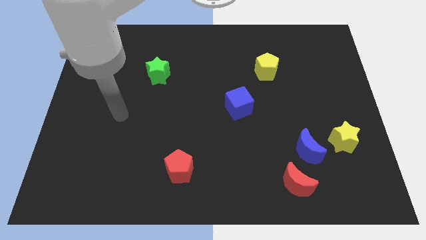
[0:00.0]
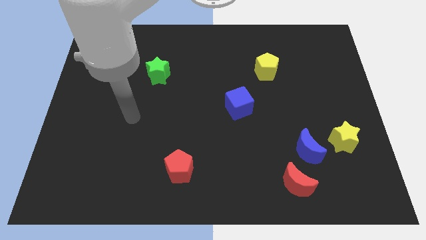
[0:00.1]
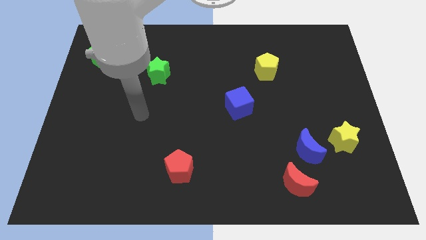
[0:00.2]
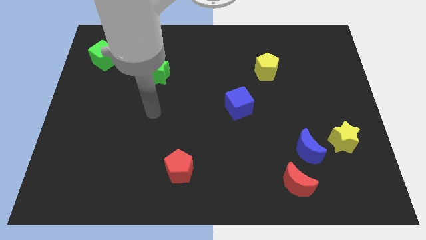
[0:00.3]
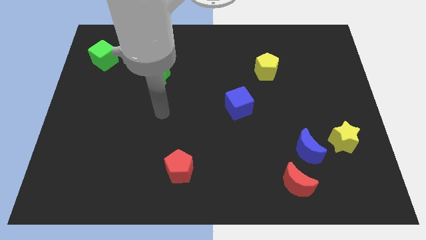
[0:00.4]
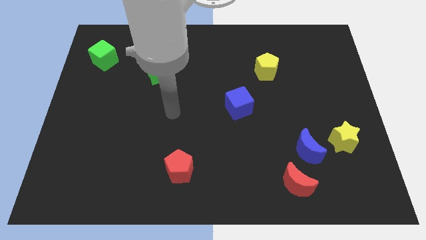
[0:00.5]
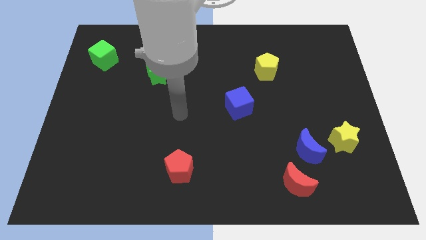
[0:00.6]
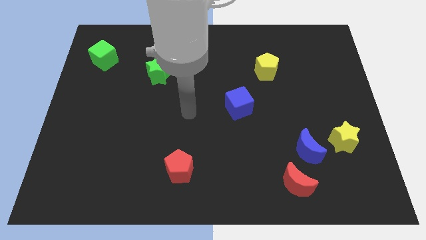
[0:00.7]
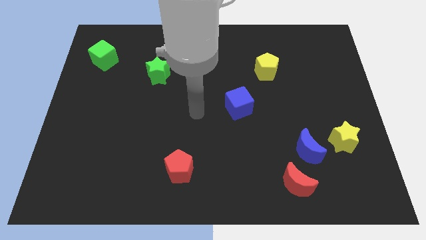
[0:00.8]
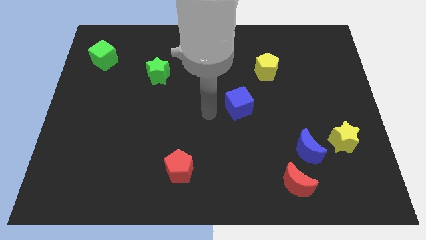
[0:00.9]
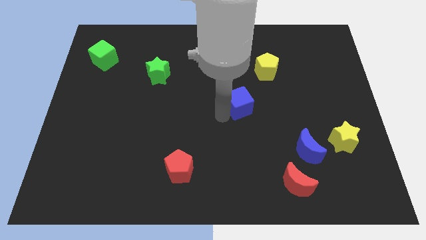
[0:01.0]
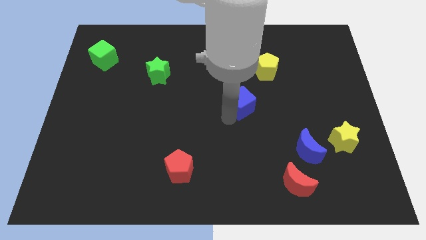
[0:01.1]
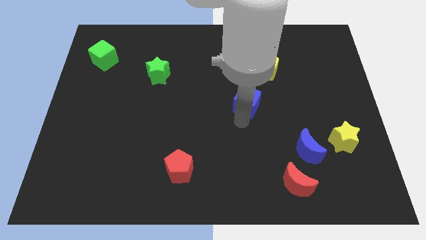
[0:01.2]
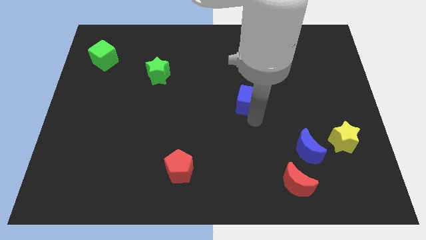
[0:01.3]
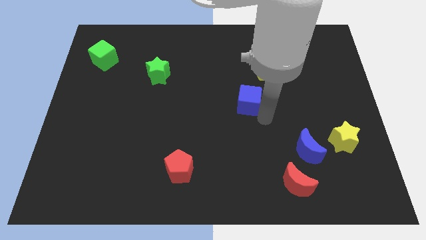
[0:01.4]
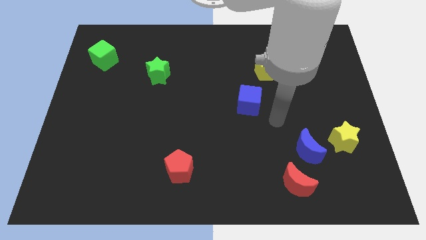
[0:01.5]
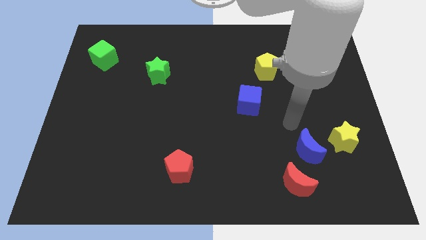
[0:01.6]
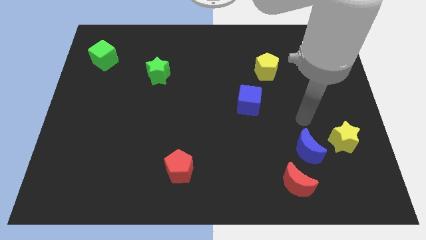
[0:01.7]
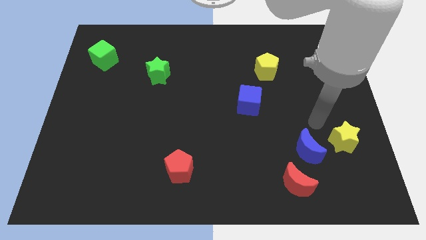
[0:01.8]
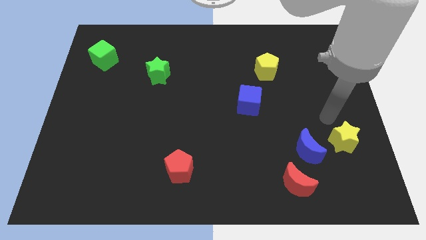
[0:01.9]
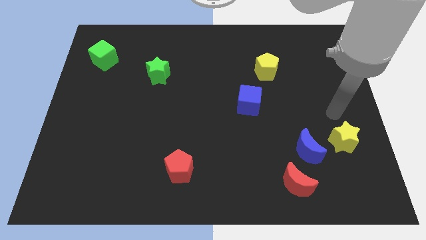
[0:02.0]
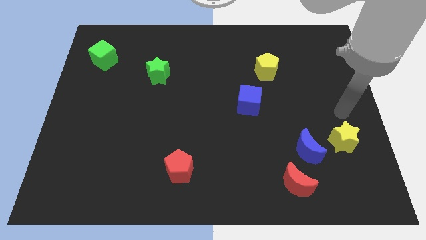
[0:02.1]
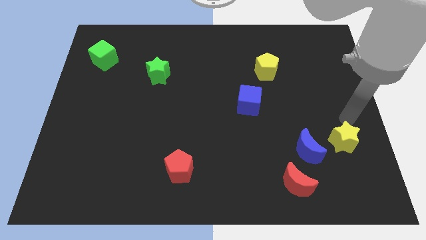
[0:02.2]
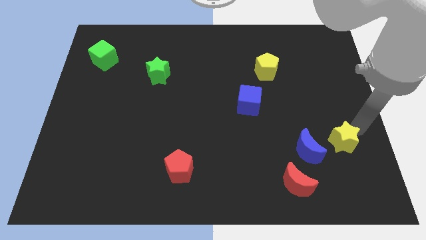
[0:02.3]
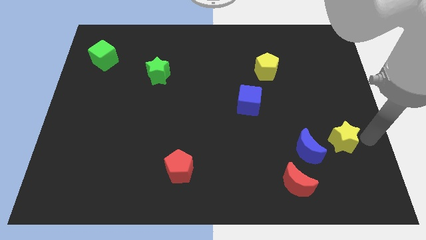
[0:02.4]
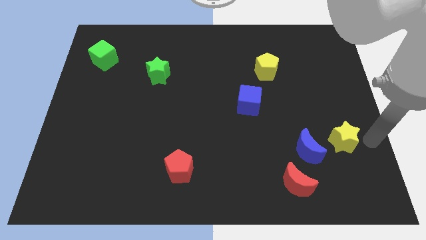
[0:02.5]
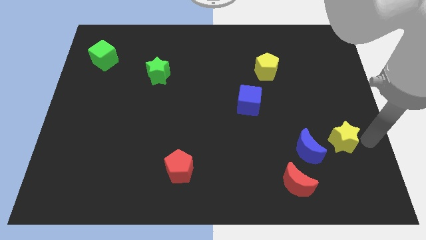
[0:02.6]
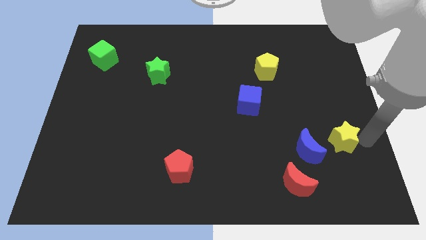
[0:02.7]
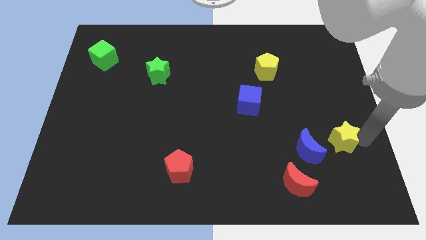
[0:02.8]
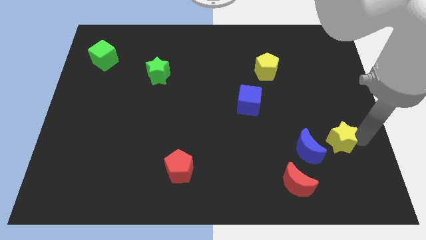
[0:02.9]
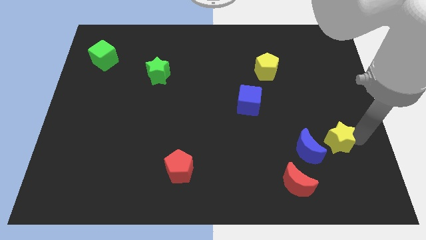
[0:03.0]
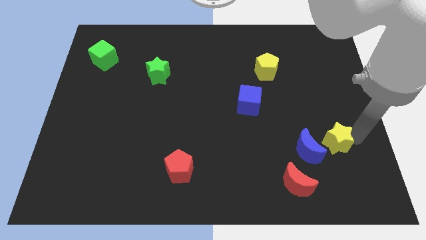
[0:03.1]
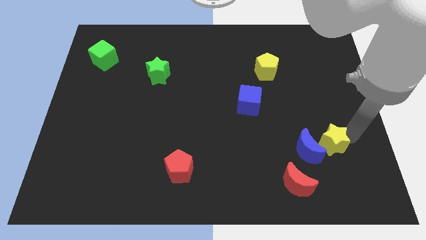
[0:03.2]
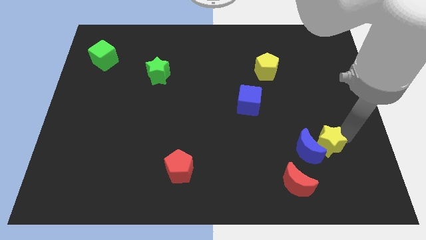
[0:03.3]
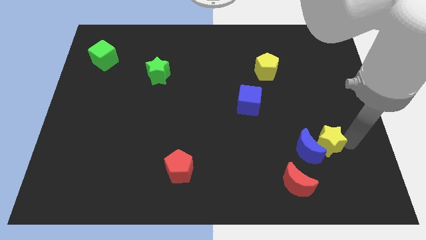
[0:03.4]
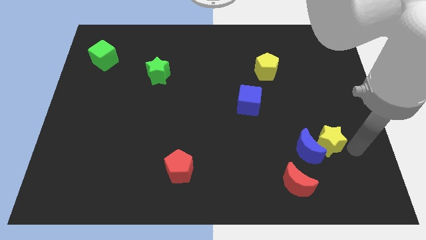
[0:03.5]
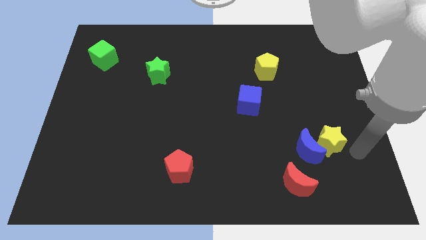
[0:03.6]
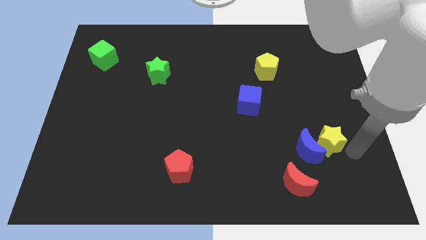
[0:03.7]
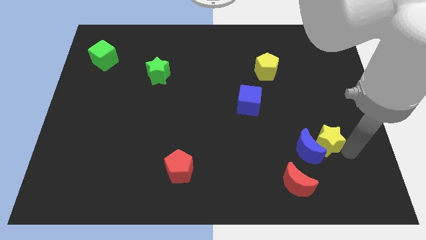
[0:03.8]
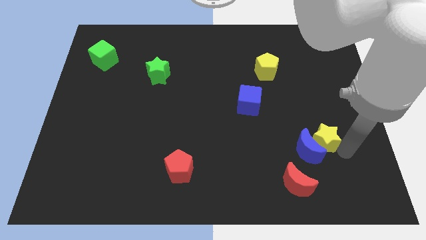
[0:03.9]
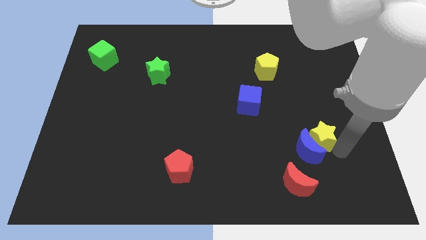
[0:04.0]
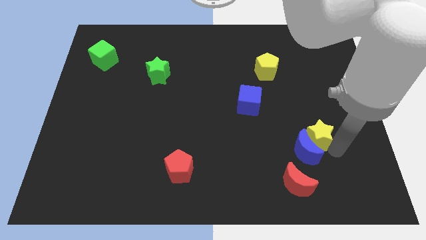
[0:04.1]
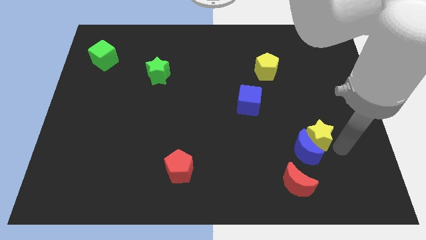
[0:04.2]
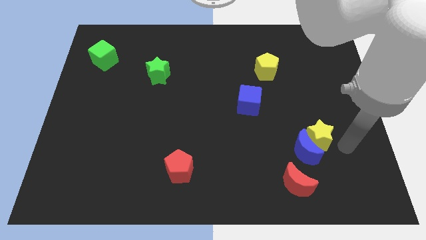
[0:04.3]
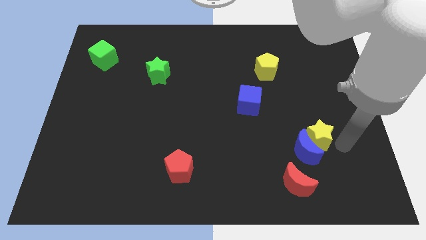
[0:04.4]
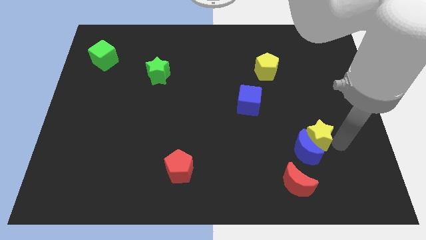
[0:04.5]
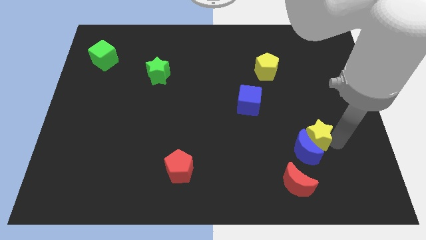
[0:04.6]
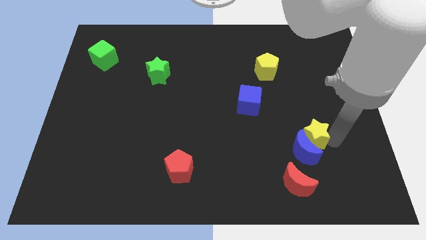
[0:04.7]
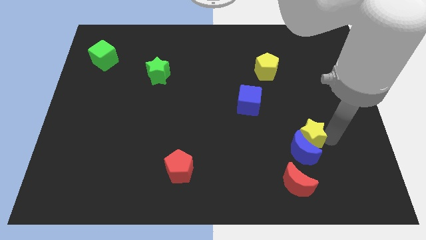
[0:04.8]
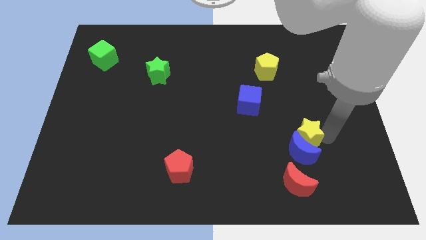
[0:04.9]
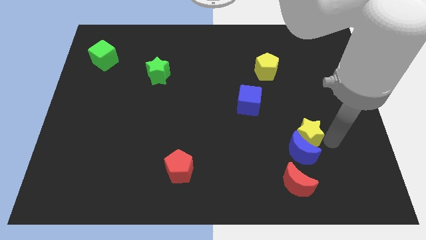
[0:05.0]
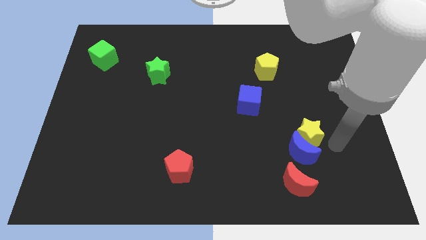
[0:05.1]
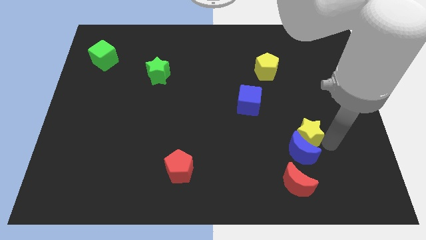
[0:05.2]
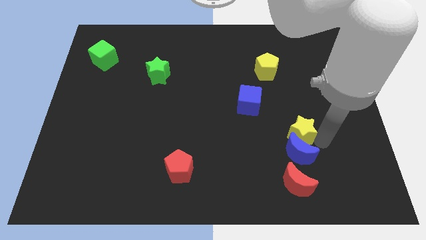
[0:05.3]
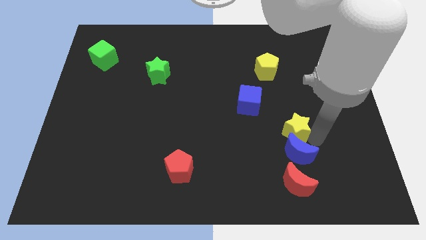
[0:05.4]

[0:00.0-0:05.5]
slide the yellow star to the bottom right side of the blue cube

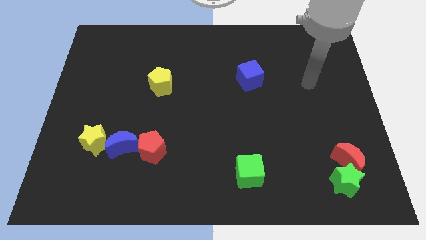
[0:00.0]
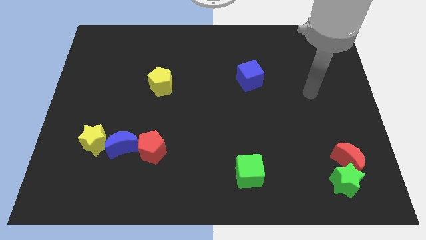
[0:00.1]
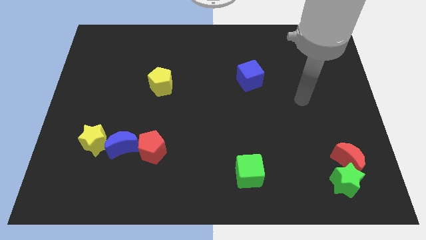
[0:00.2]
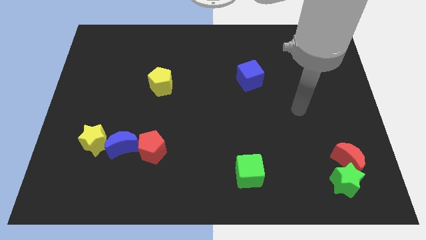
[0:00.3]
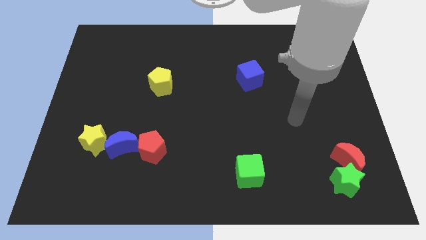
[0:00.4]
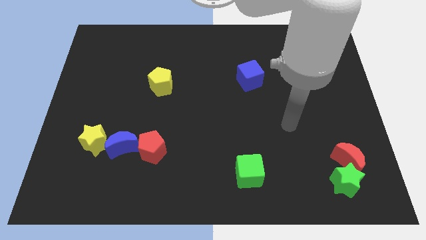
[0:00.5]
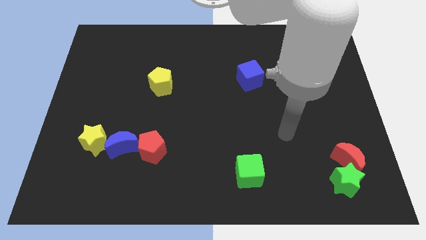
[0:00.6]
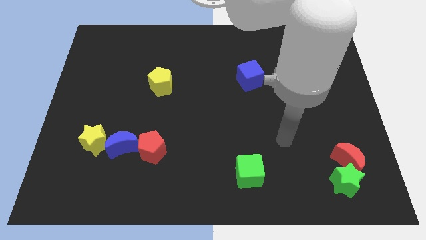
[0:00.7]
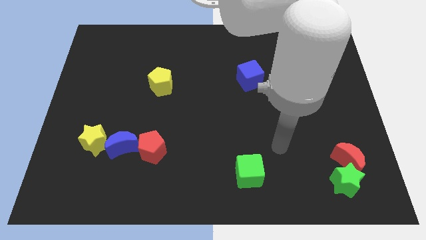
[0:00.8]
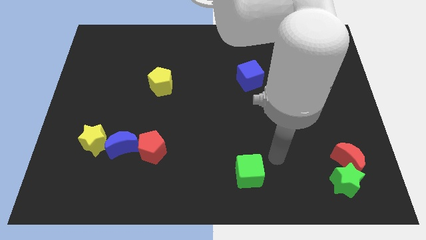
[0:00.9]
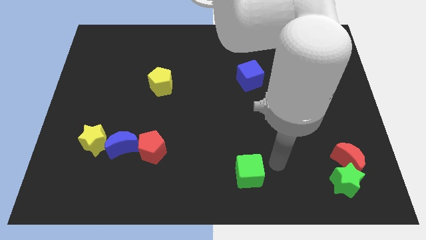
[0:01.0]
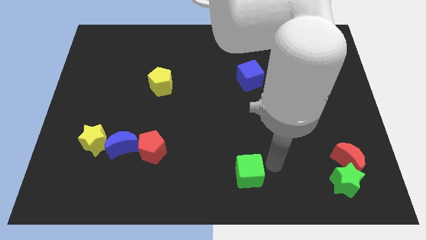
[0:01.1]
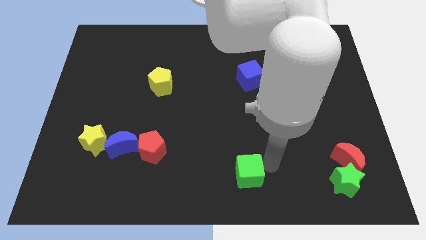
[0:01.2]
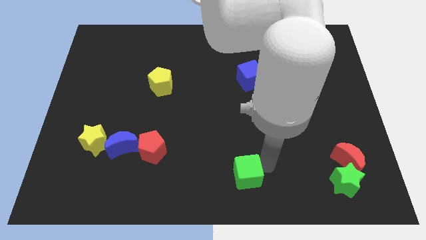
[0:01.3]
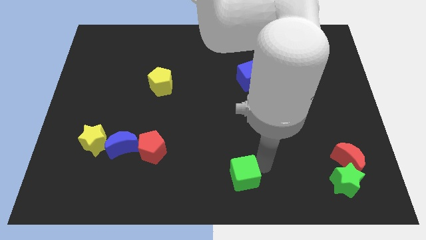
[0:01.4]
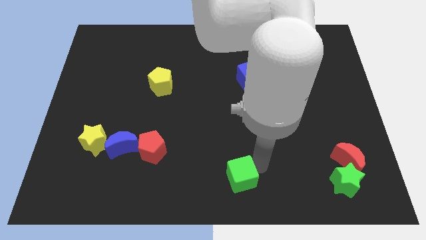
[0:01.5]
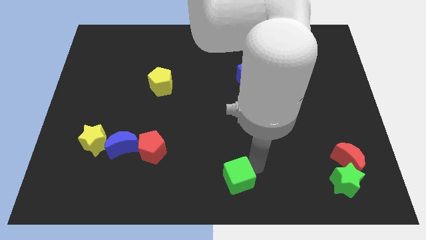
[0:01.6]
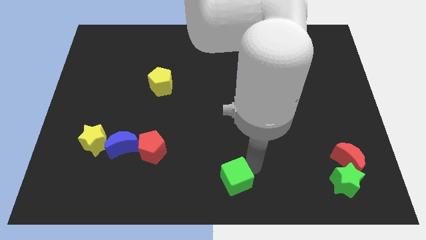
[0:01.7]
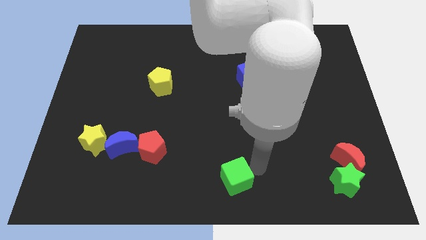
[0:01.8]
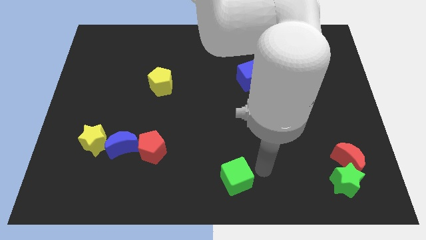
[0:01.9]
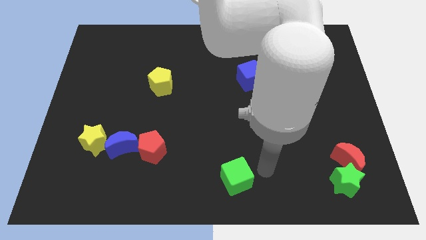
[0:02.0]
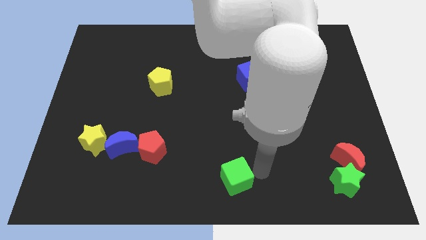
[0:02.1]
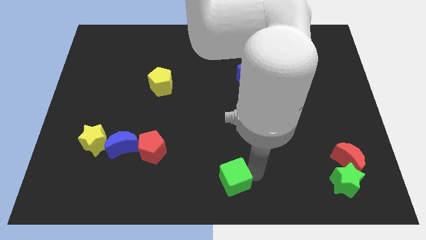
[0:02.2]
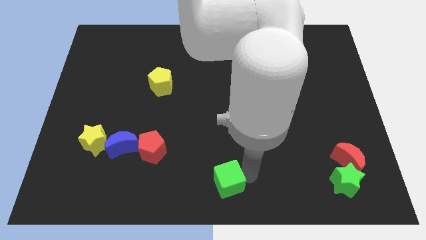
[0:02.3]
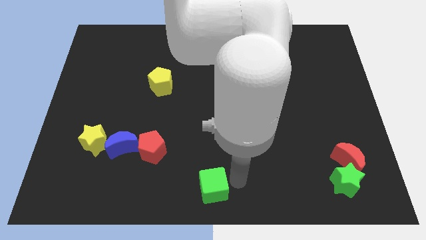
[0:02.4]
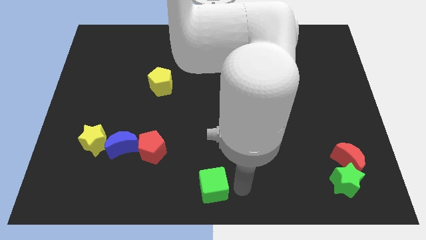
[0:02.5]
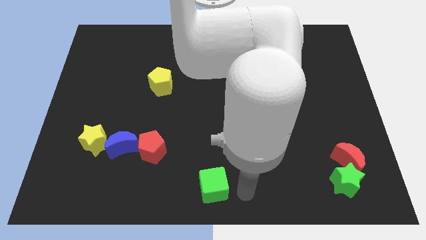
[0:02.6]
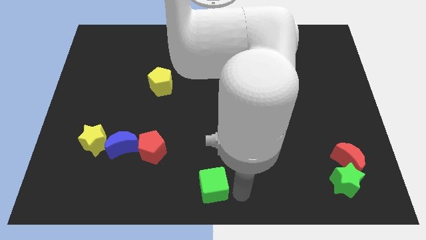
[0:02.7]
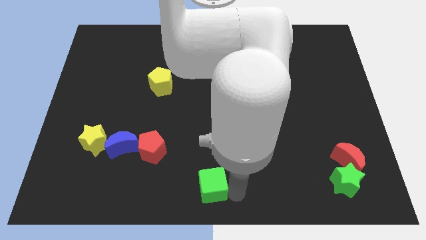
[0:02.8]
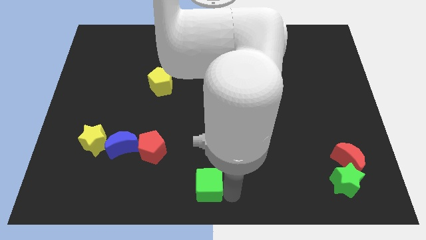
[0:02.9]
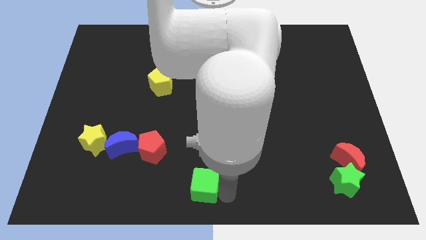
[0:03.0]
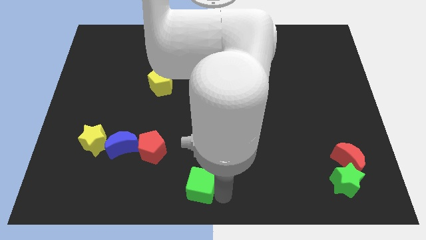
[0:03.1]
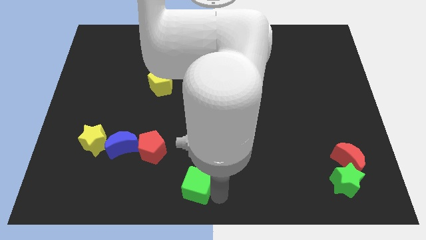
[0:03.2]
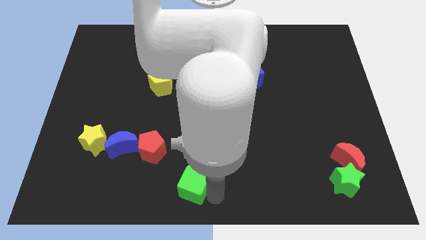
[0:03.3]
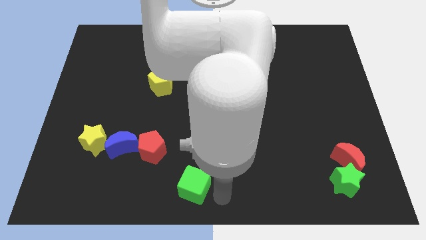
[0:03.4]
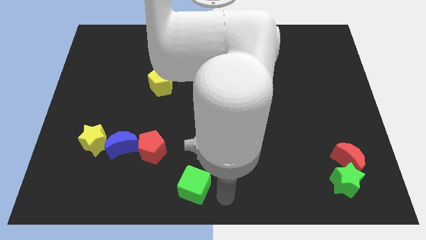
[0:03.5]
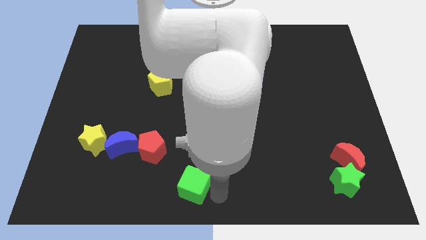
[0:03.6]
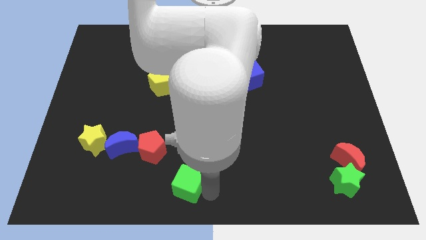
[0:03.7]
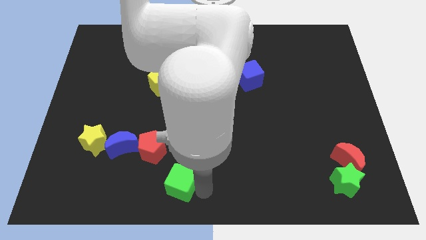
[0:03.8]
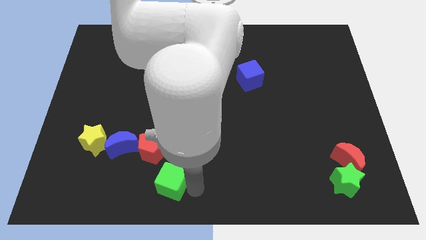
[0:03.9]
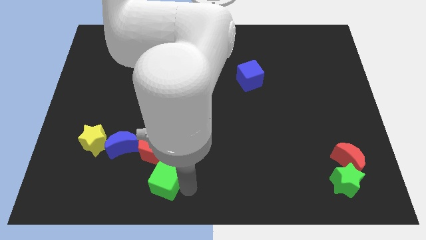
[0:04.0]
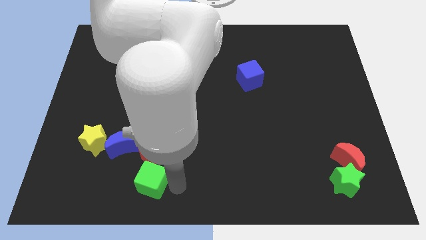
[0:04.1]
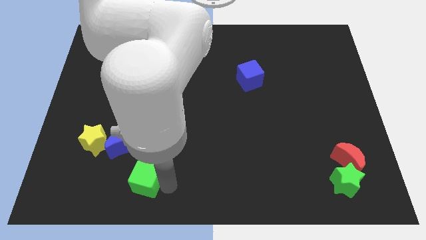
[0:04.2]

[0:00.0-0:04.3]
put the green cube diagonally down and to the left of the red pentagon
